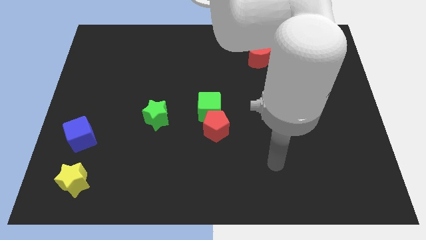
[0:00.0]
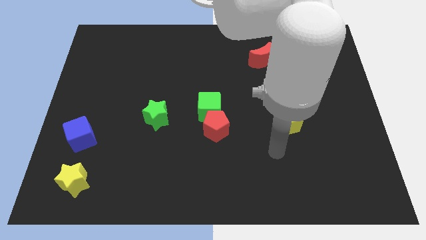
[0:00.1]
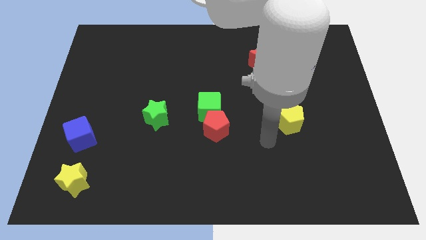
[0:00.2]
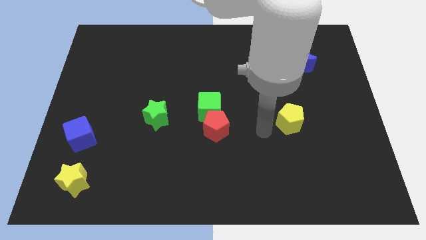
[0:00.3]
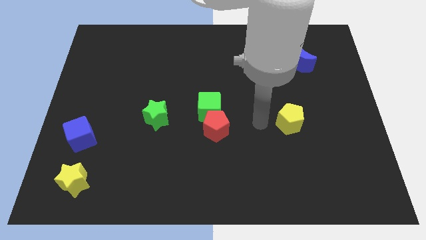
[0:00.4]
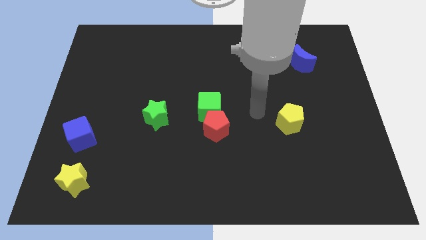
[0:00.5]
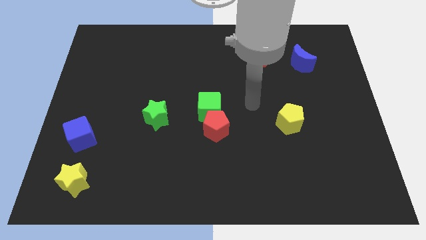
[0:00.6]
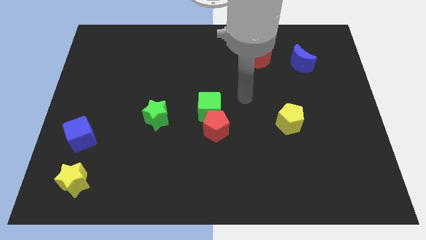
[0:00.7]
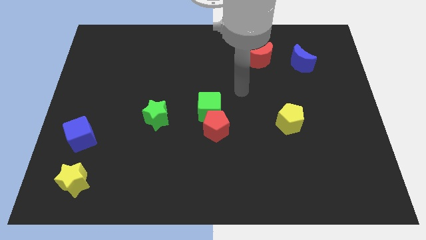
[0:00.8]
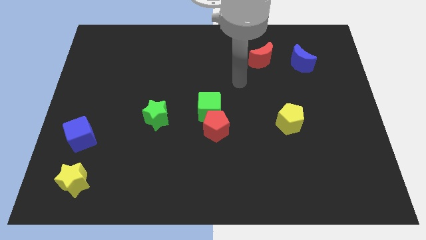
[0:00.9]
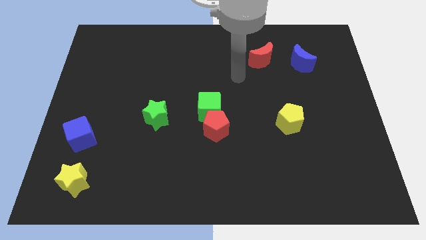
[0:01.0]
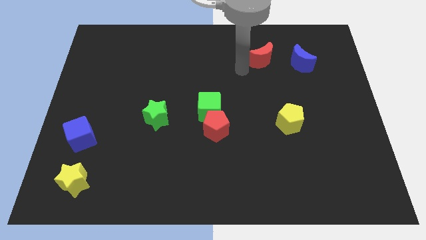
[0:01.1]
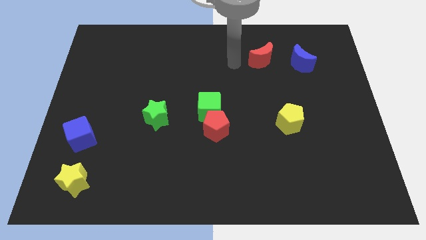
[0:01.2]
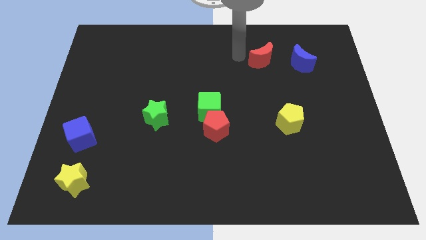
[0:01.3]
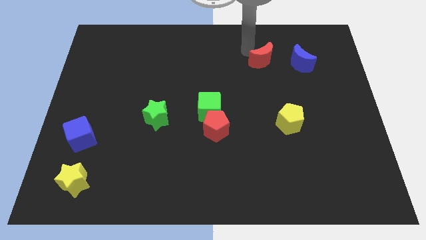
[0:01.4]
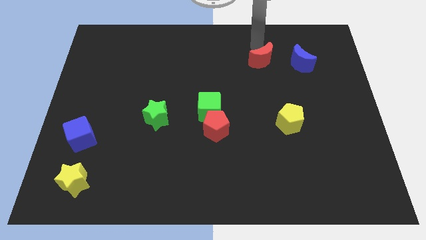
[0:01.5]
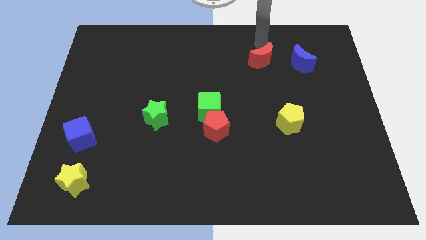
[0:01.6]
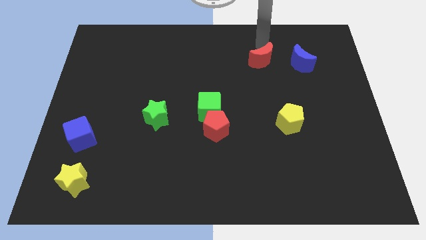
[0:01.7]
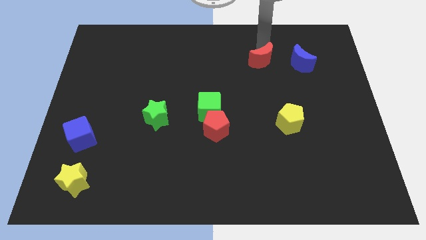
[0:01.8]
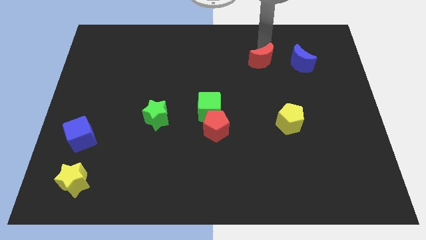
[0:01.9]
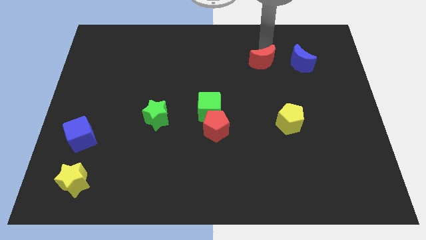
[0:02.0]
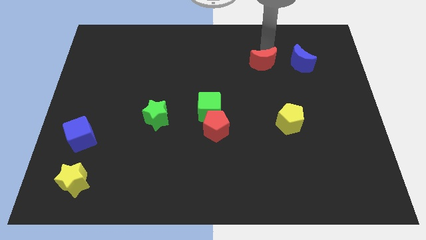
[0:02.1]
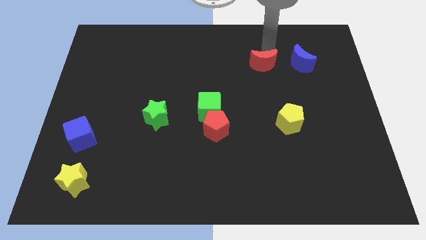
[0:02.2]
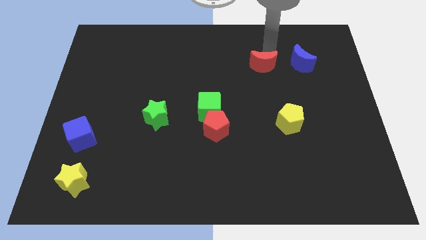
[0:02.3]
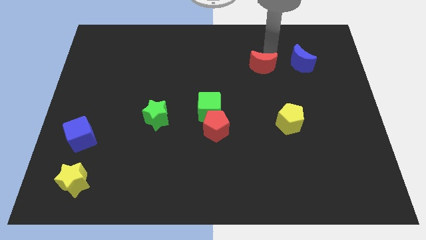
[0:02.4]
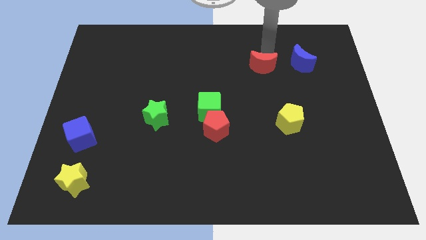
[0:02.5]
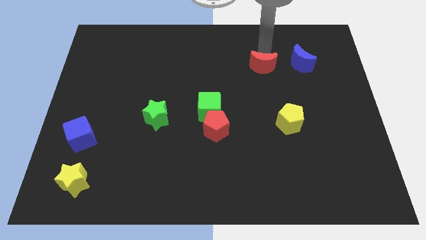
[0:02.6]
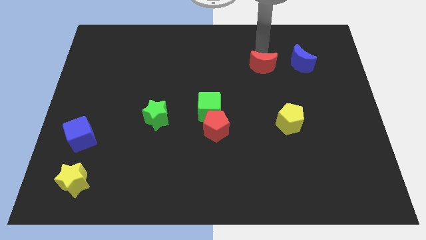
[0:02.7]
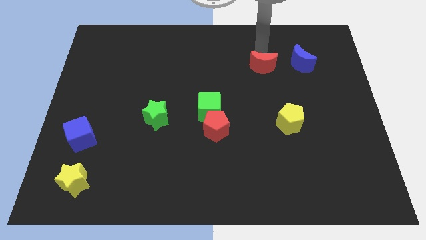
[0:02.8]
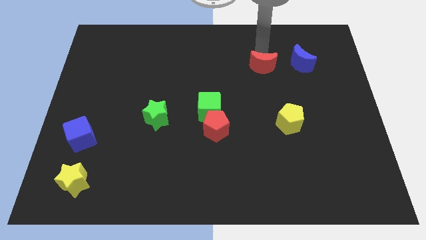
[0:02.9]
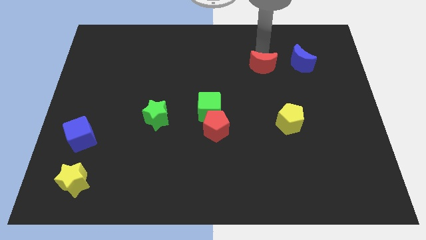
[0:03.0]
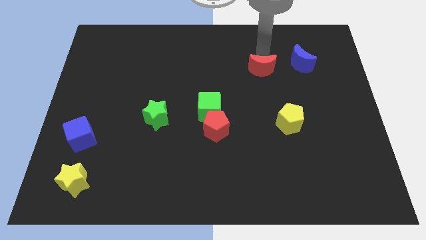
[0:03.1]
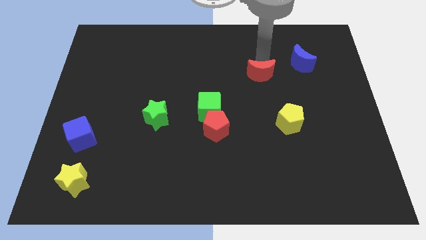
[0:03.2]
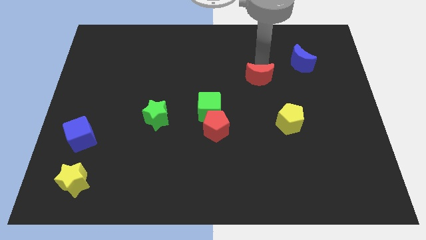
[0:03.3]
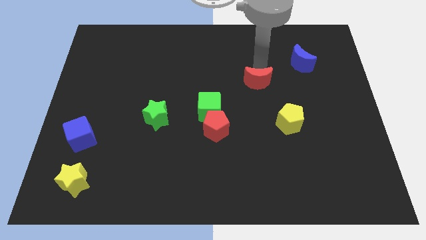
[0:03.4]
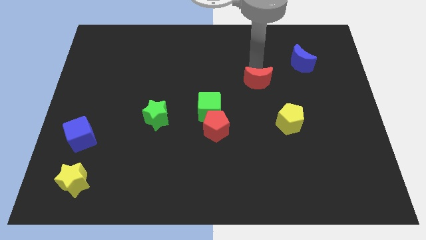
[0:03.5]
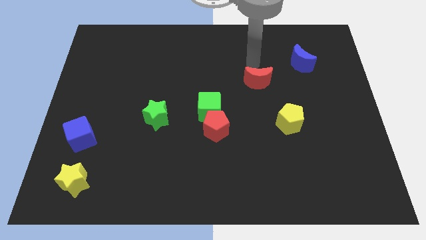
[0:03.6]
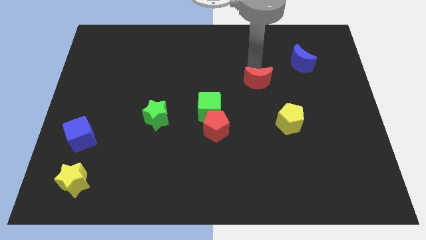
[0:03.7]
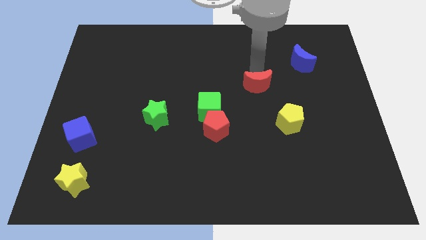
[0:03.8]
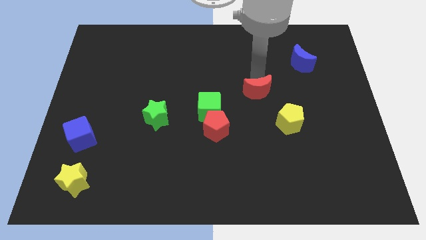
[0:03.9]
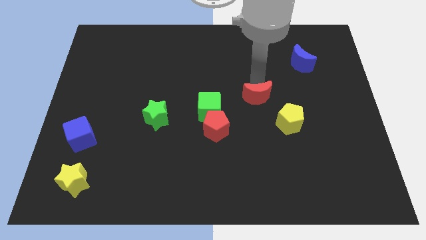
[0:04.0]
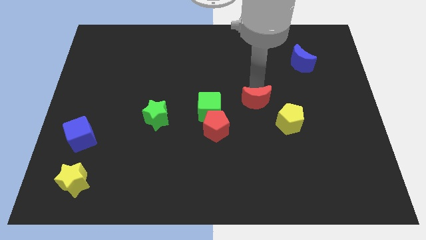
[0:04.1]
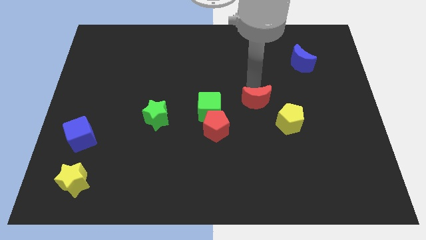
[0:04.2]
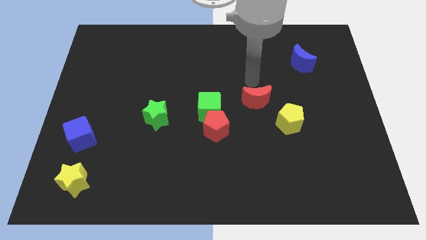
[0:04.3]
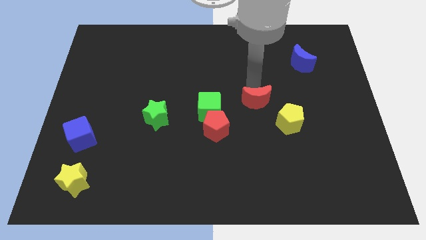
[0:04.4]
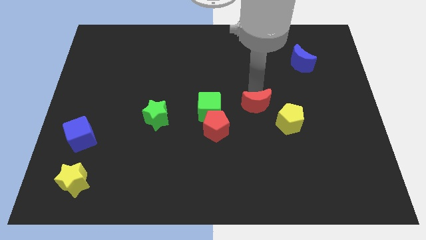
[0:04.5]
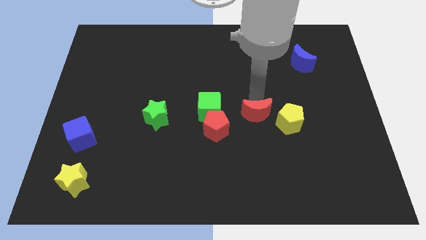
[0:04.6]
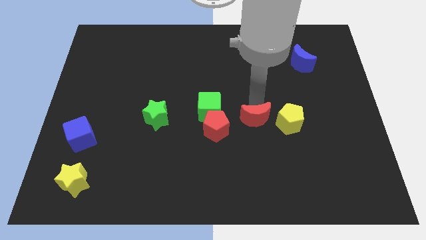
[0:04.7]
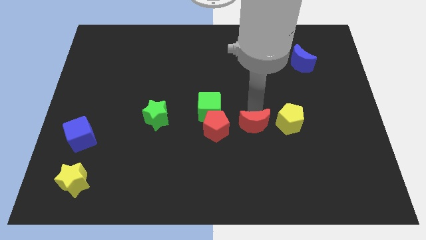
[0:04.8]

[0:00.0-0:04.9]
push the red moon down

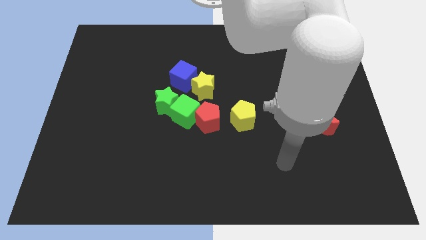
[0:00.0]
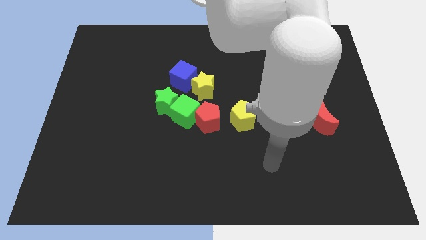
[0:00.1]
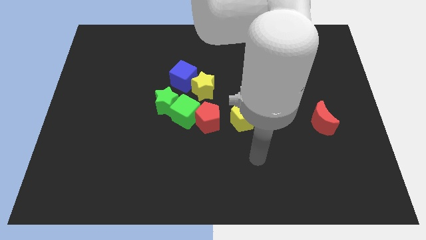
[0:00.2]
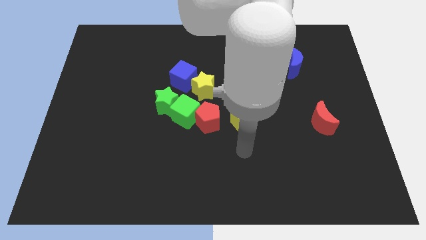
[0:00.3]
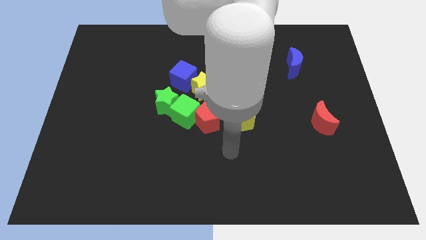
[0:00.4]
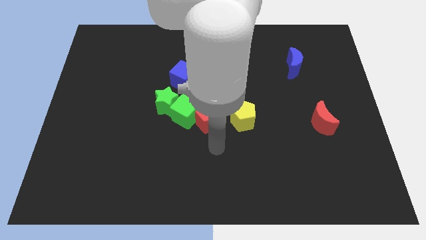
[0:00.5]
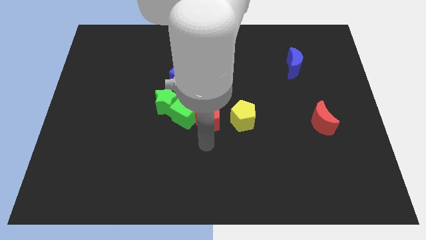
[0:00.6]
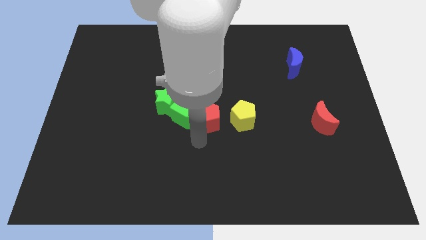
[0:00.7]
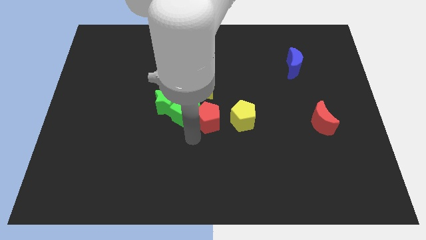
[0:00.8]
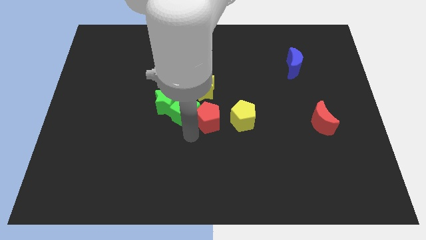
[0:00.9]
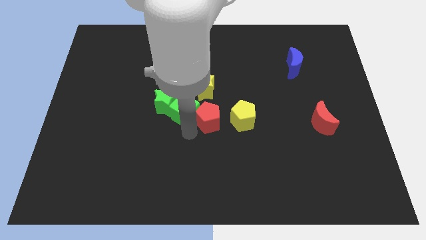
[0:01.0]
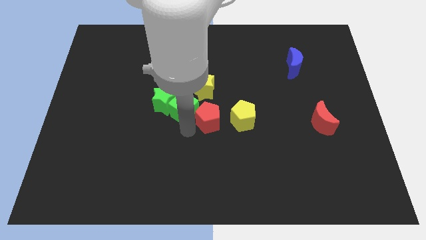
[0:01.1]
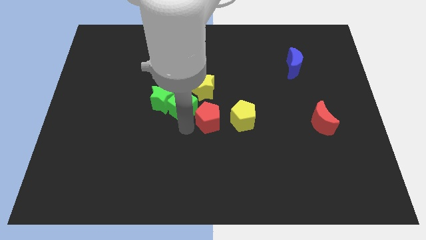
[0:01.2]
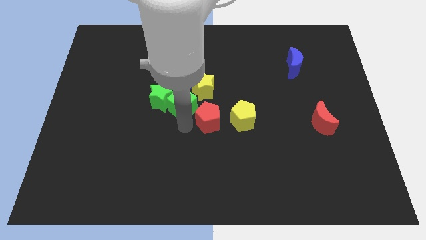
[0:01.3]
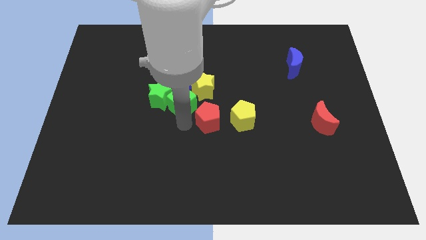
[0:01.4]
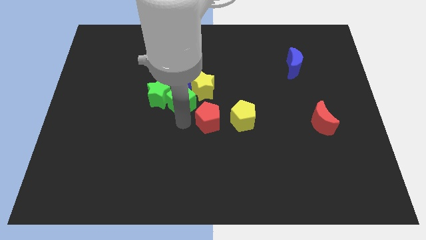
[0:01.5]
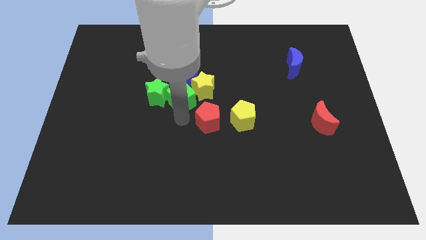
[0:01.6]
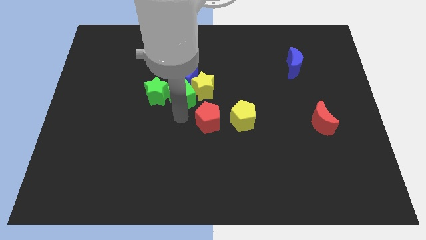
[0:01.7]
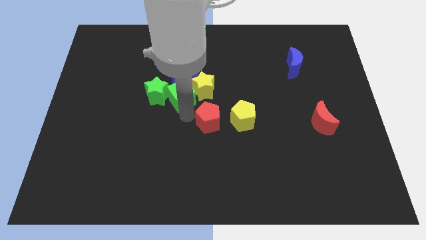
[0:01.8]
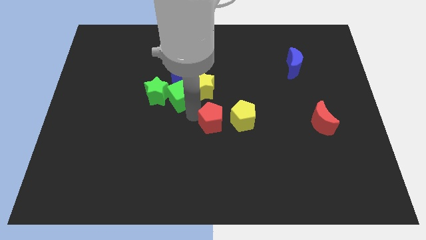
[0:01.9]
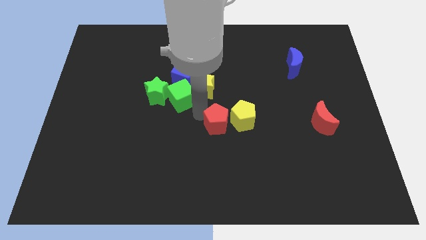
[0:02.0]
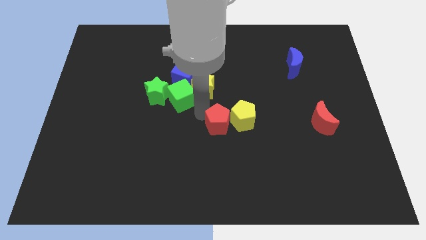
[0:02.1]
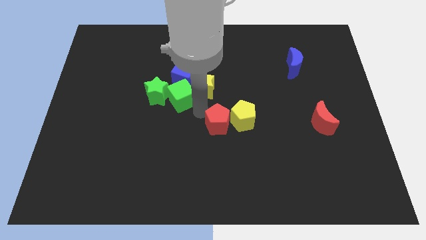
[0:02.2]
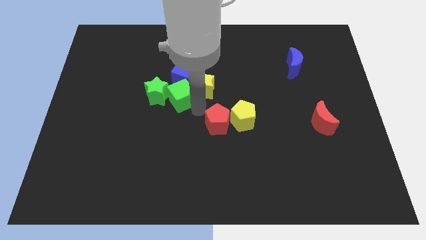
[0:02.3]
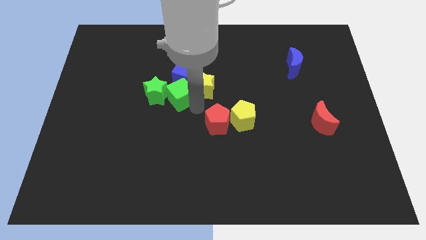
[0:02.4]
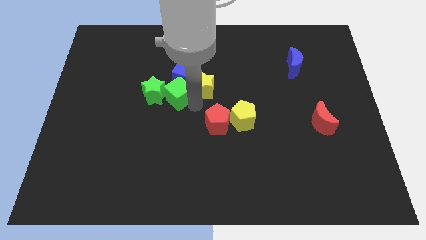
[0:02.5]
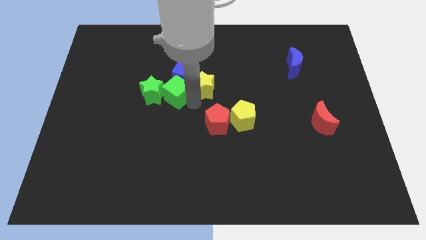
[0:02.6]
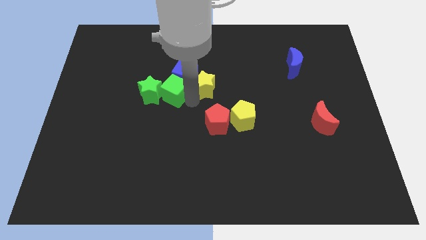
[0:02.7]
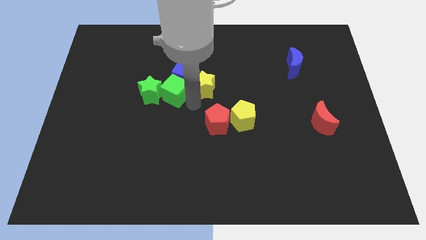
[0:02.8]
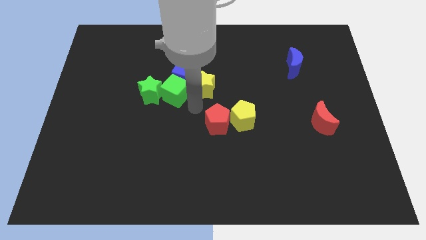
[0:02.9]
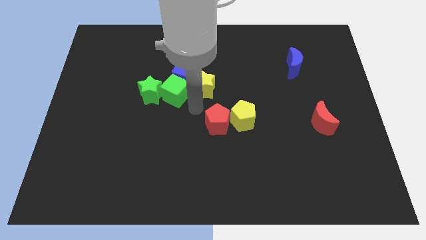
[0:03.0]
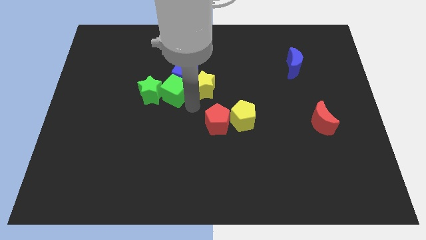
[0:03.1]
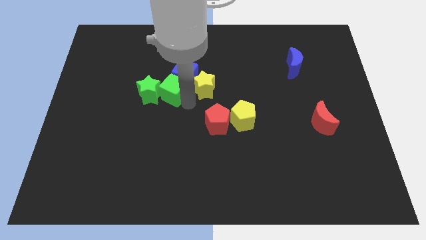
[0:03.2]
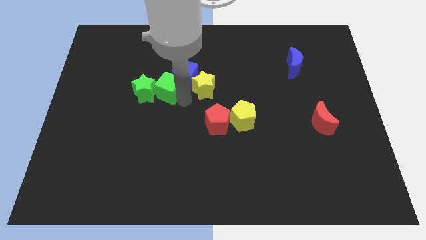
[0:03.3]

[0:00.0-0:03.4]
slide the green cube a little up and then left
